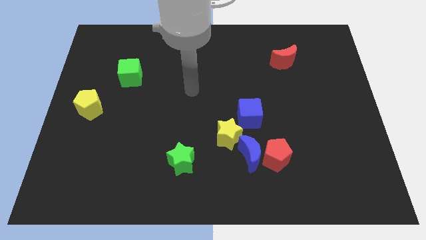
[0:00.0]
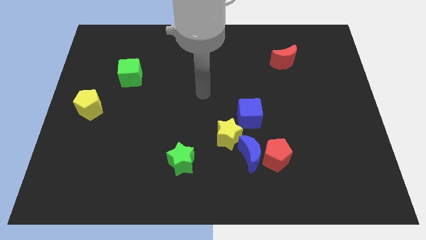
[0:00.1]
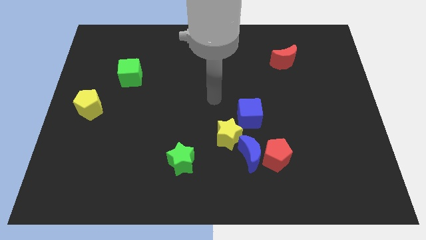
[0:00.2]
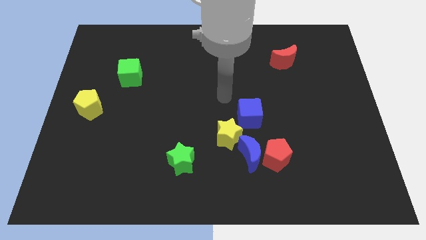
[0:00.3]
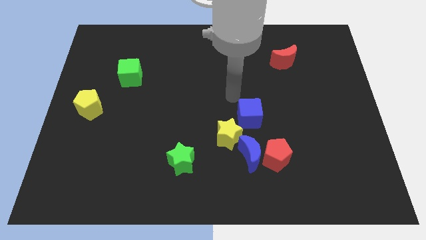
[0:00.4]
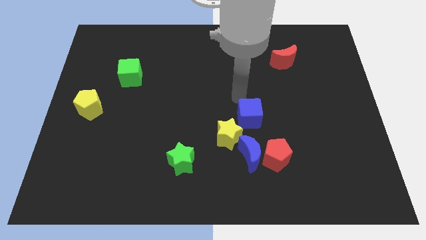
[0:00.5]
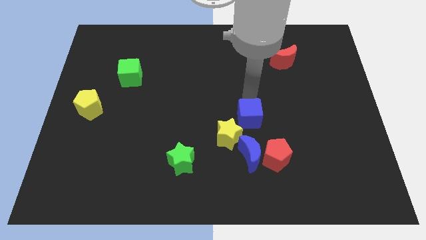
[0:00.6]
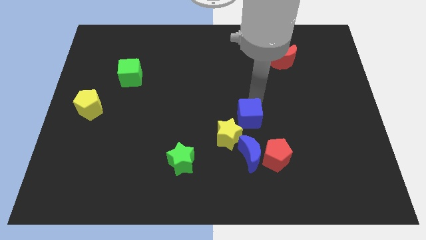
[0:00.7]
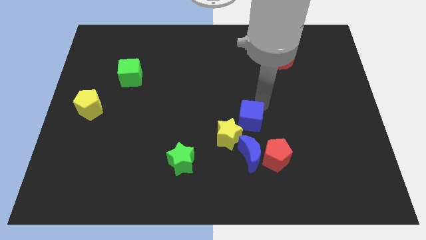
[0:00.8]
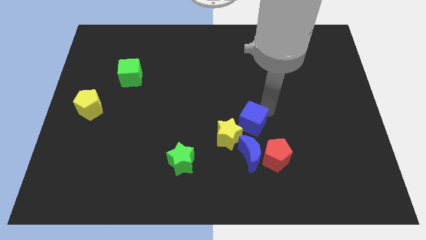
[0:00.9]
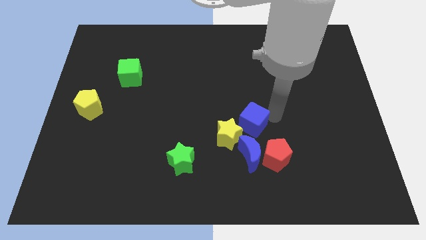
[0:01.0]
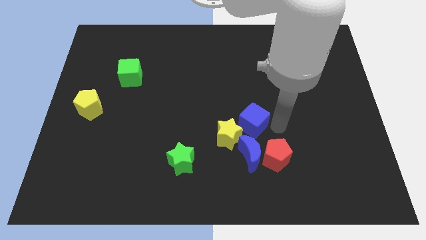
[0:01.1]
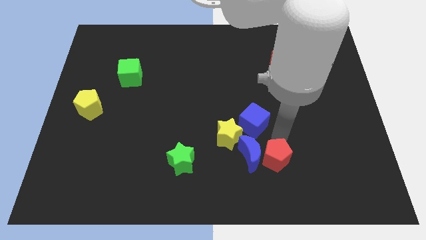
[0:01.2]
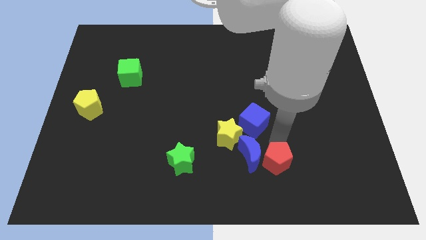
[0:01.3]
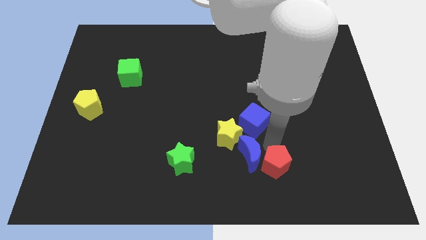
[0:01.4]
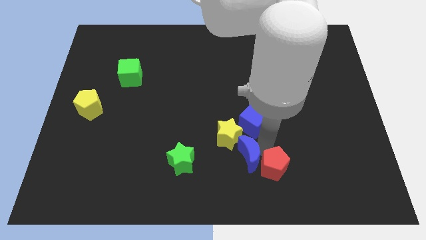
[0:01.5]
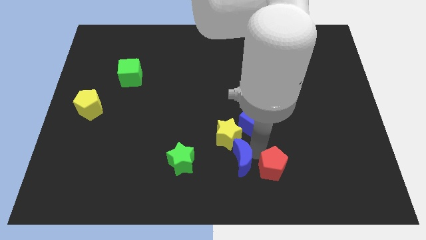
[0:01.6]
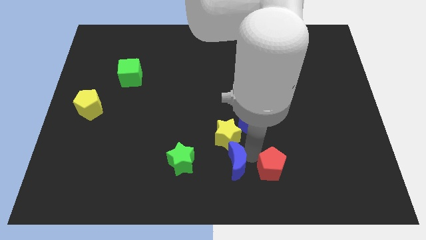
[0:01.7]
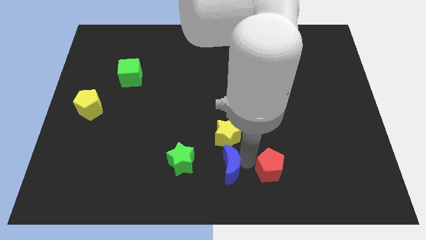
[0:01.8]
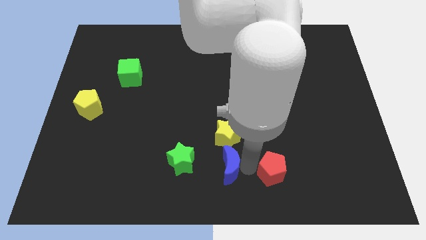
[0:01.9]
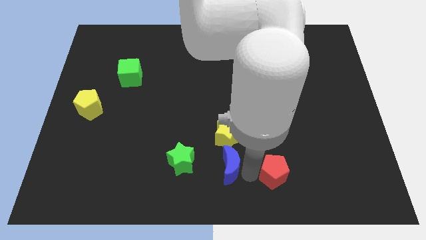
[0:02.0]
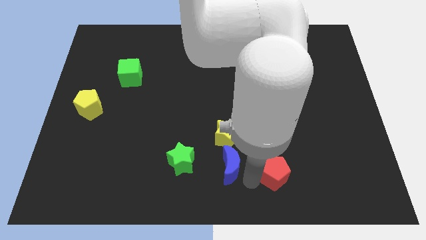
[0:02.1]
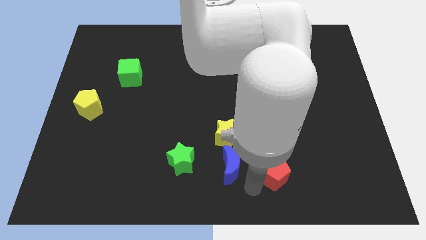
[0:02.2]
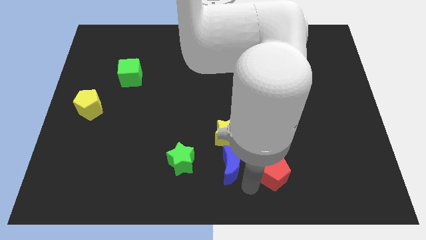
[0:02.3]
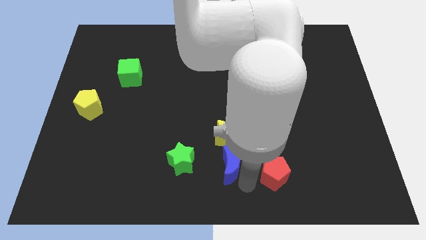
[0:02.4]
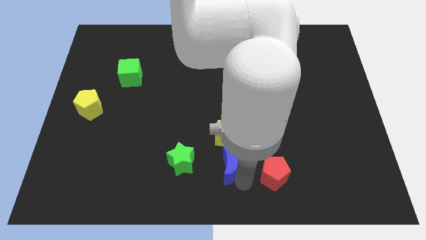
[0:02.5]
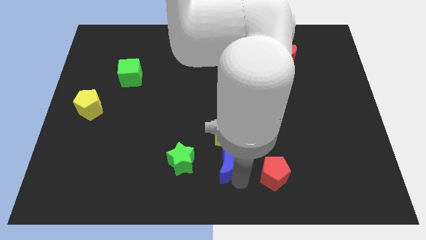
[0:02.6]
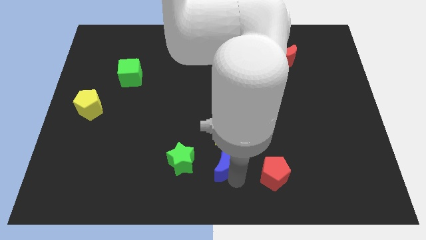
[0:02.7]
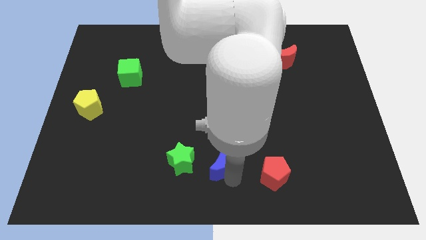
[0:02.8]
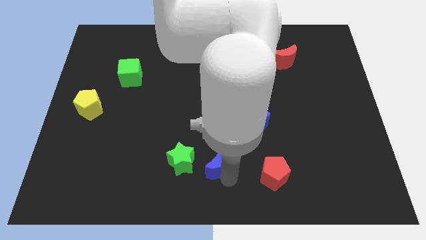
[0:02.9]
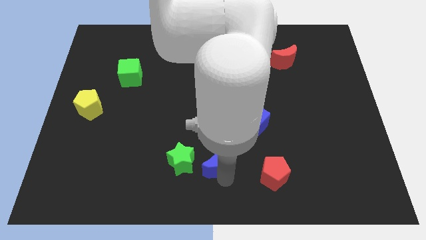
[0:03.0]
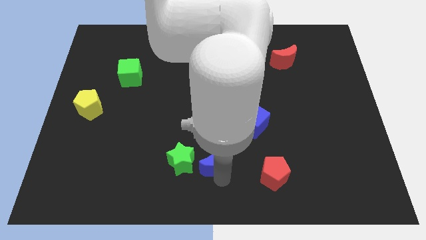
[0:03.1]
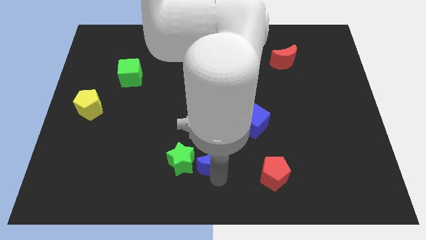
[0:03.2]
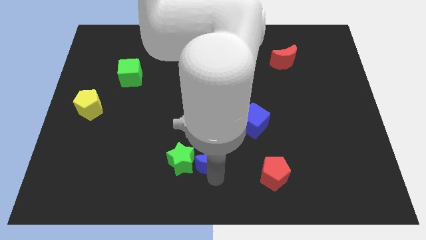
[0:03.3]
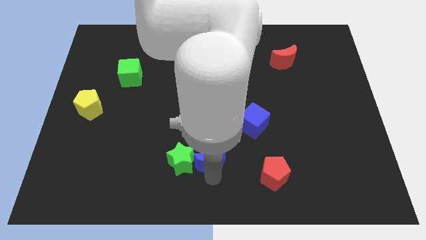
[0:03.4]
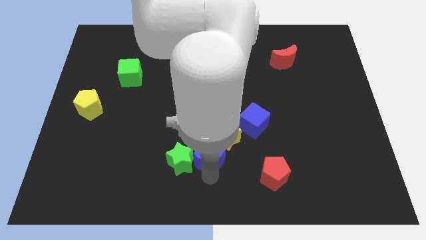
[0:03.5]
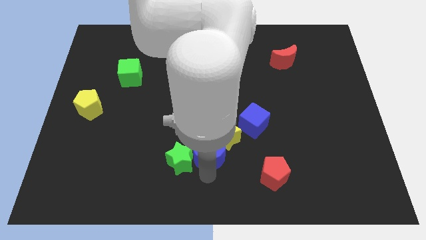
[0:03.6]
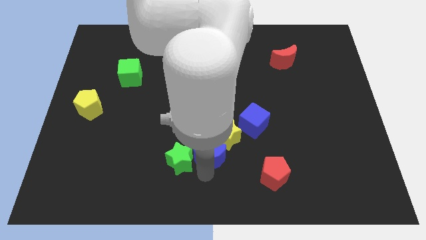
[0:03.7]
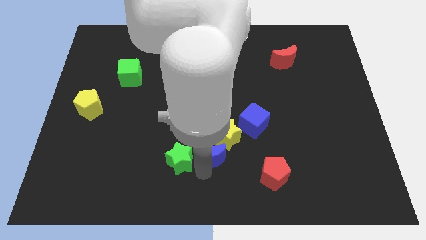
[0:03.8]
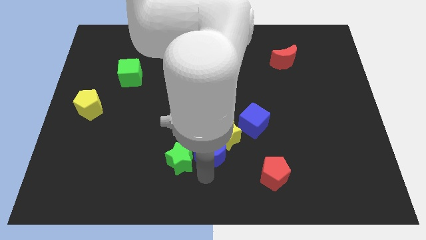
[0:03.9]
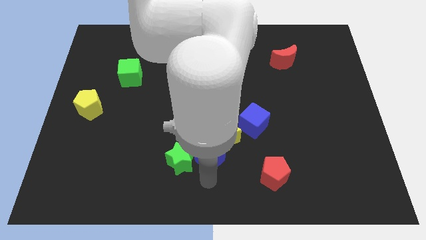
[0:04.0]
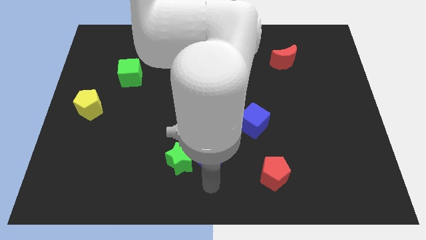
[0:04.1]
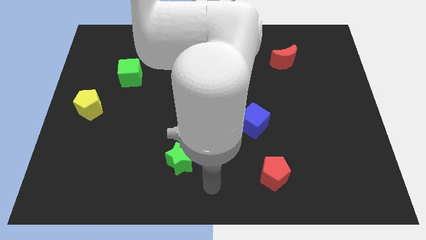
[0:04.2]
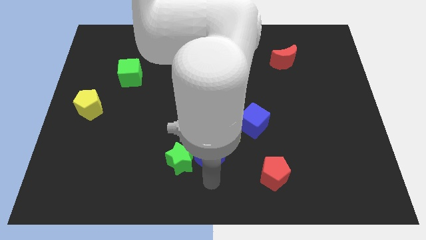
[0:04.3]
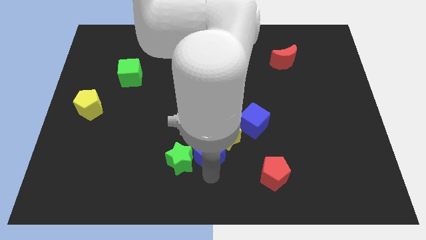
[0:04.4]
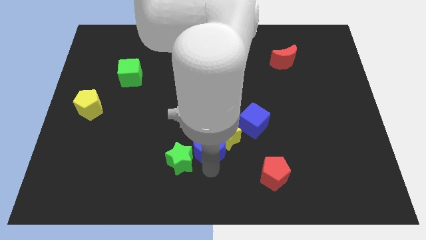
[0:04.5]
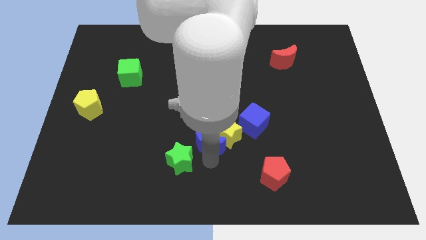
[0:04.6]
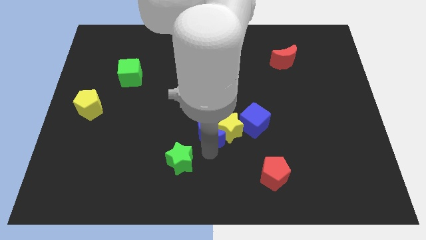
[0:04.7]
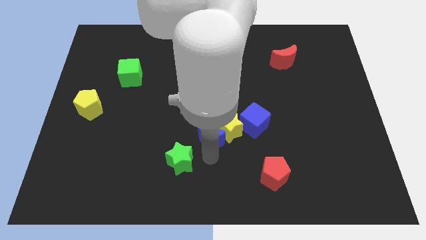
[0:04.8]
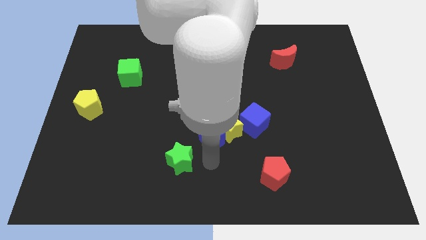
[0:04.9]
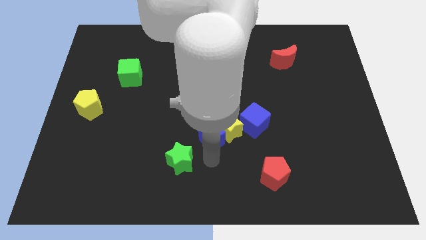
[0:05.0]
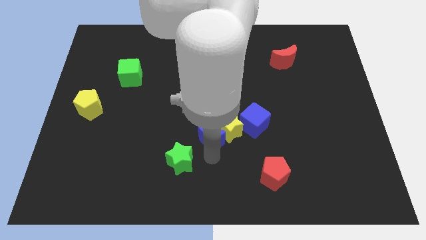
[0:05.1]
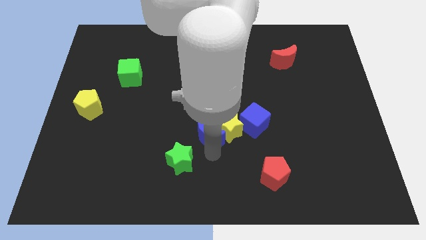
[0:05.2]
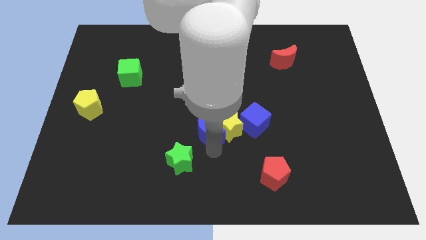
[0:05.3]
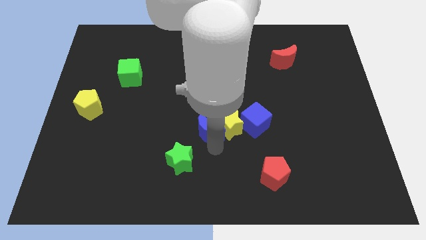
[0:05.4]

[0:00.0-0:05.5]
put the blue moon diagonally up and to the left of the yellow star

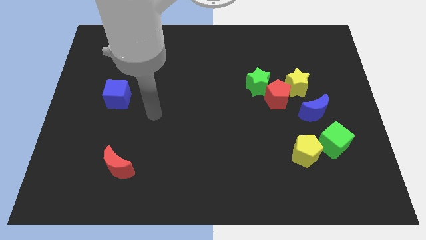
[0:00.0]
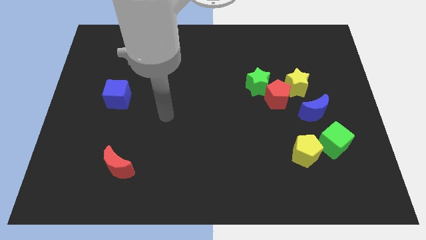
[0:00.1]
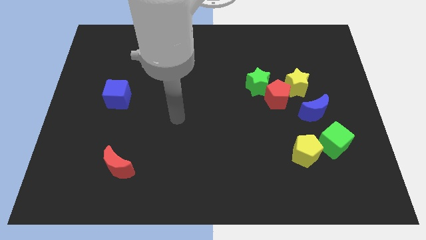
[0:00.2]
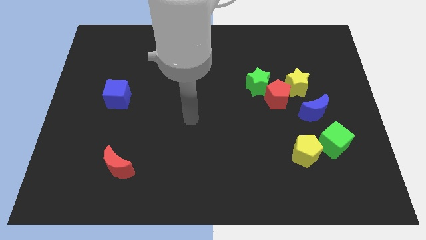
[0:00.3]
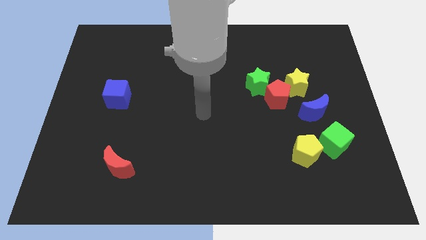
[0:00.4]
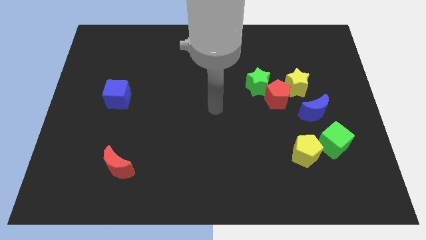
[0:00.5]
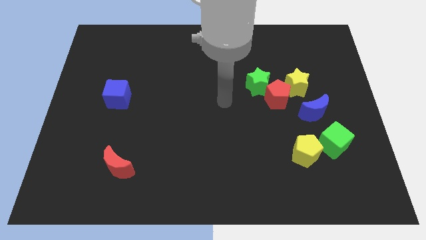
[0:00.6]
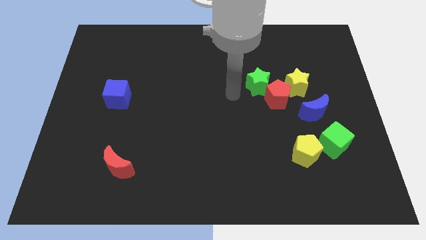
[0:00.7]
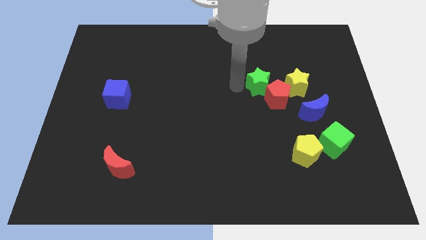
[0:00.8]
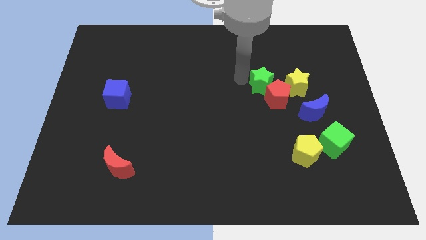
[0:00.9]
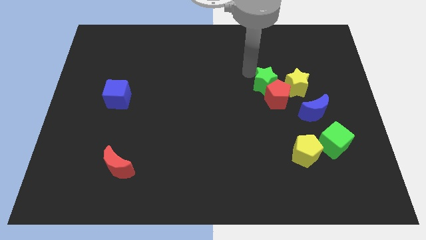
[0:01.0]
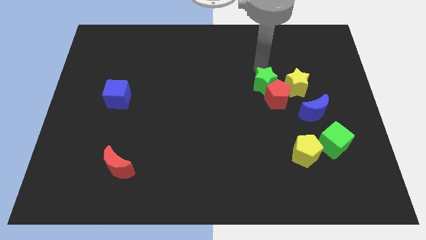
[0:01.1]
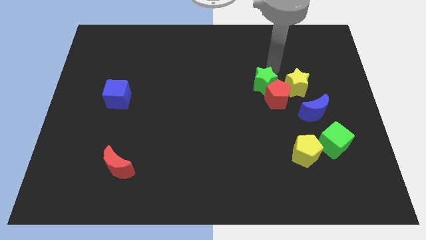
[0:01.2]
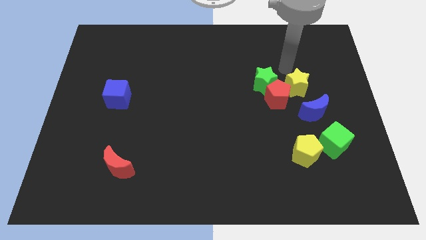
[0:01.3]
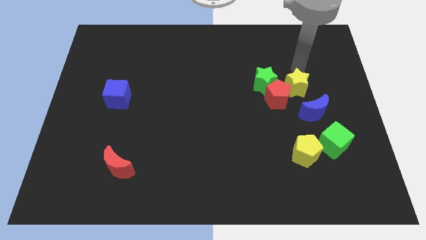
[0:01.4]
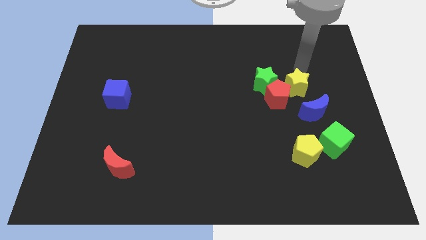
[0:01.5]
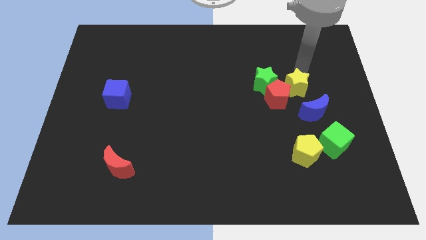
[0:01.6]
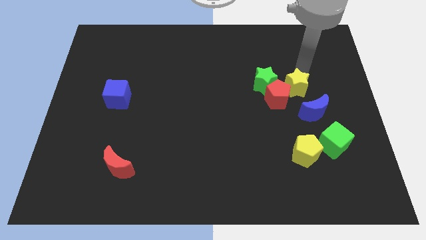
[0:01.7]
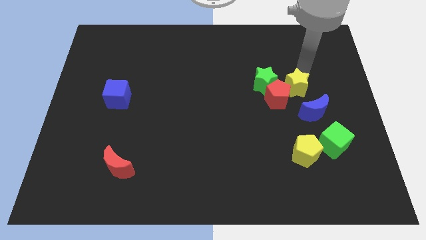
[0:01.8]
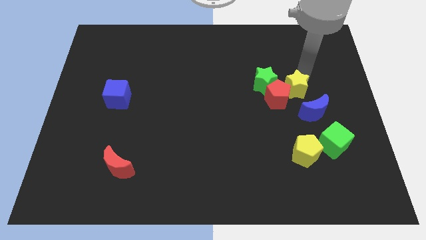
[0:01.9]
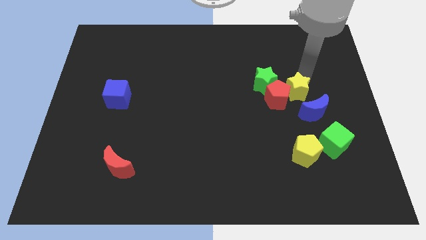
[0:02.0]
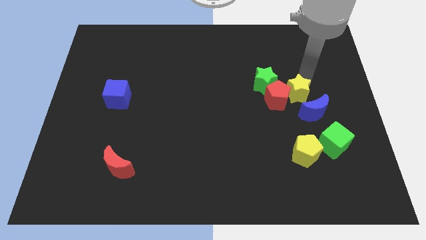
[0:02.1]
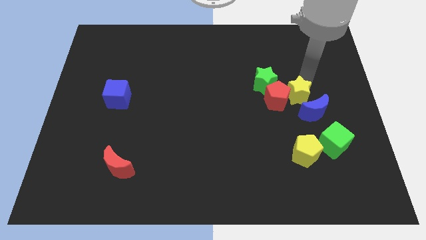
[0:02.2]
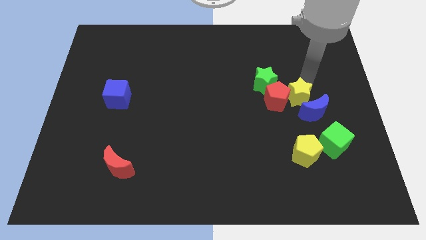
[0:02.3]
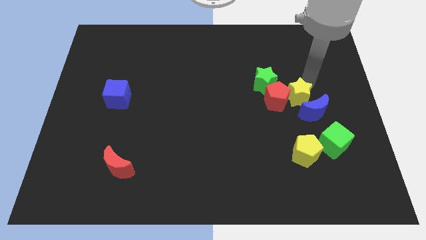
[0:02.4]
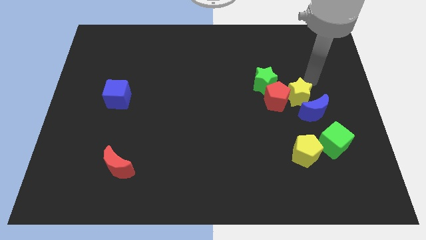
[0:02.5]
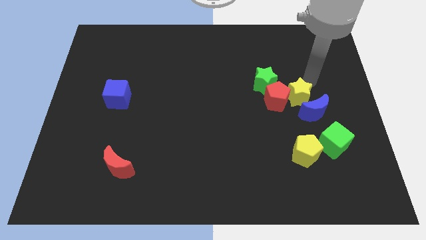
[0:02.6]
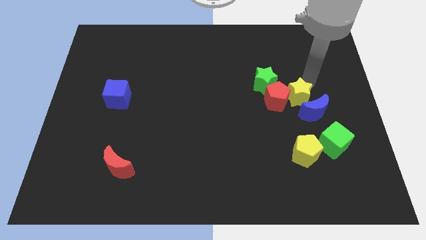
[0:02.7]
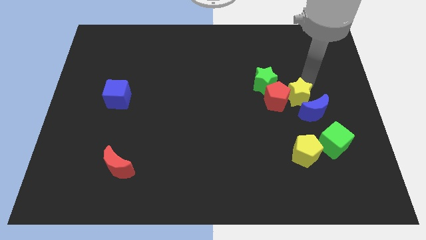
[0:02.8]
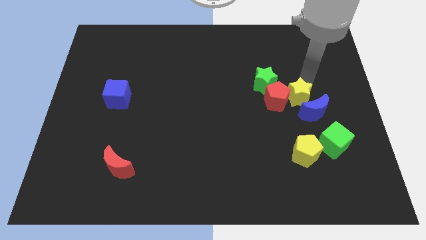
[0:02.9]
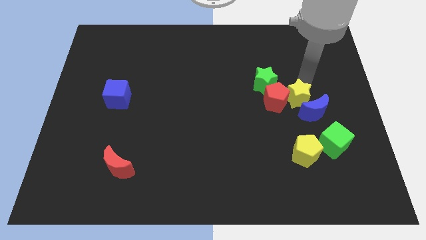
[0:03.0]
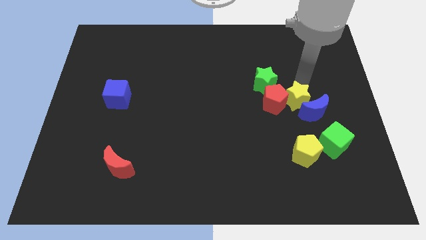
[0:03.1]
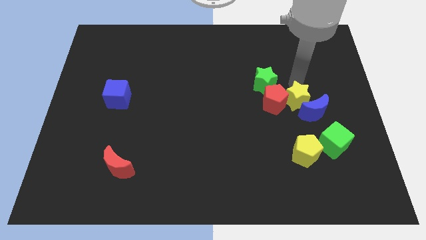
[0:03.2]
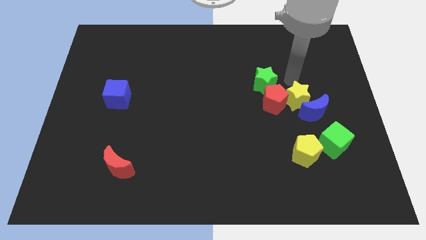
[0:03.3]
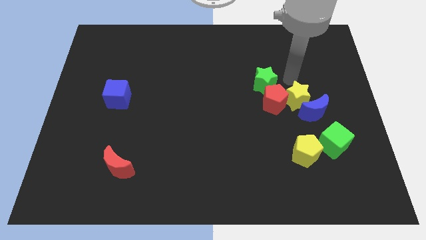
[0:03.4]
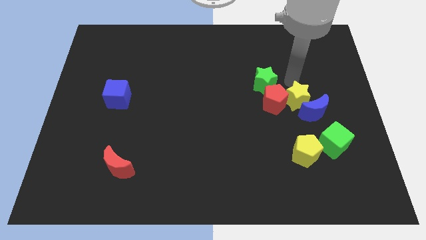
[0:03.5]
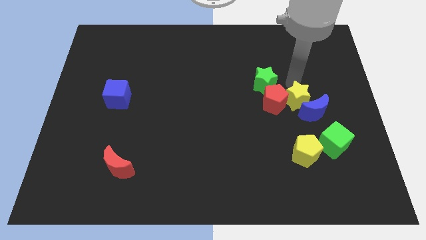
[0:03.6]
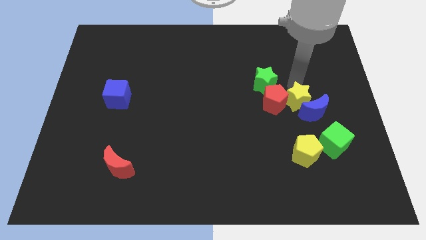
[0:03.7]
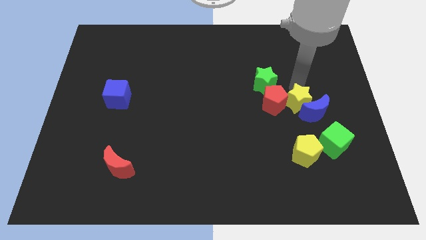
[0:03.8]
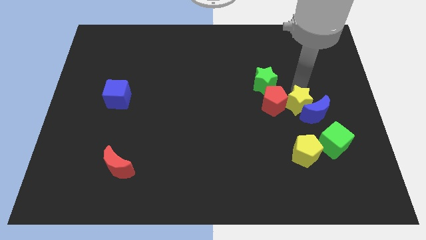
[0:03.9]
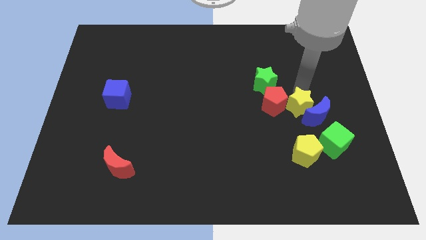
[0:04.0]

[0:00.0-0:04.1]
move the yellow star to the top left of the green cube
